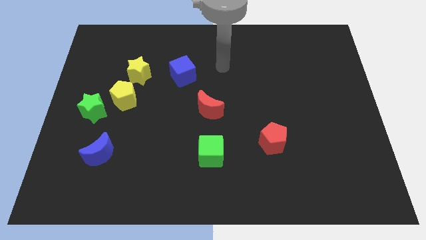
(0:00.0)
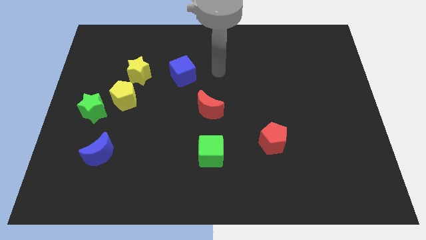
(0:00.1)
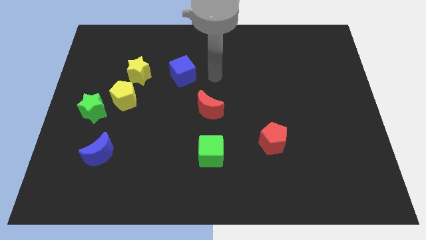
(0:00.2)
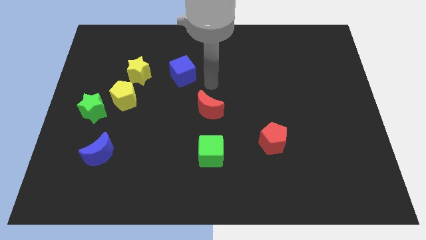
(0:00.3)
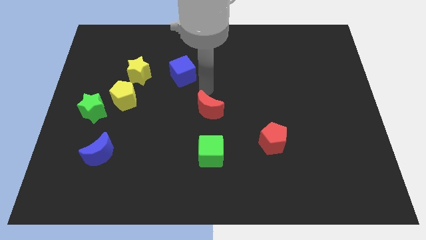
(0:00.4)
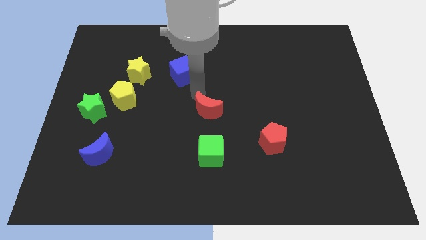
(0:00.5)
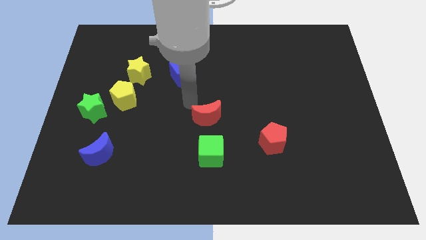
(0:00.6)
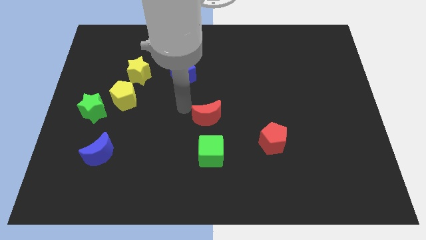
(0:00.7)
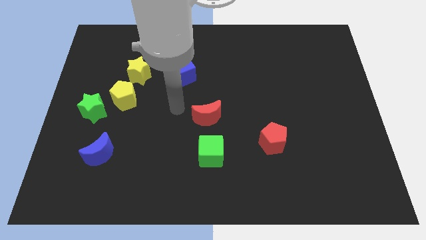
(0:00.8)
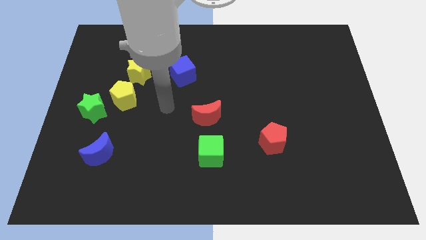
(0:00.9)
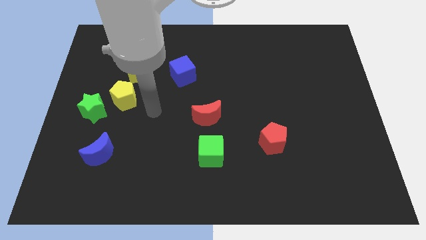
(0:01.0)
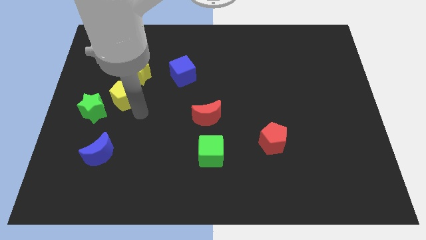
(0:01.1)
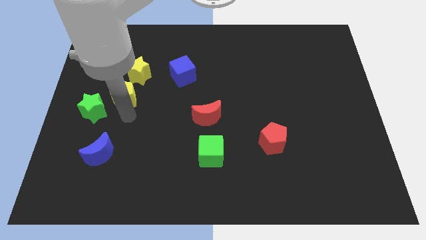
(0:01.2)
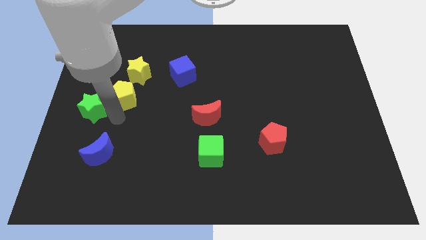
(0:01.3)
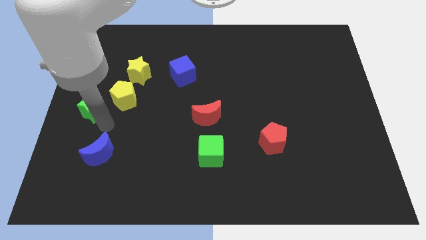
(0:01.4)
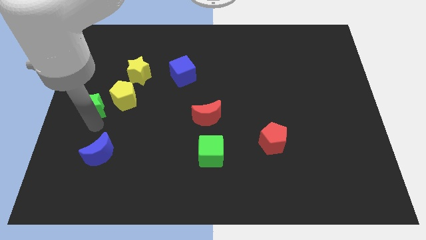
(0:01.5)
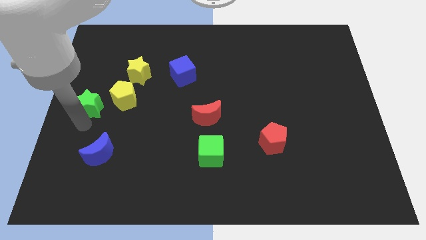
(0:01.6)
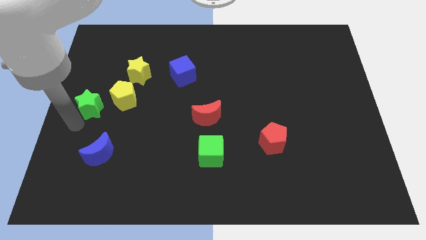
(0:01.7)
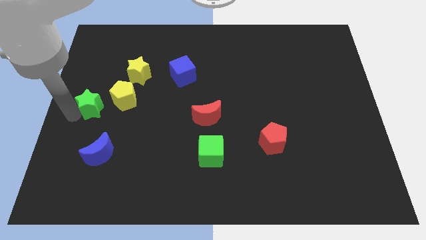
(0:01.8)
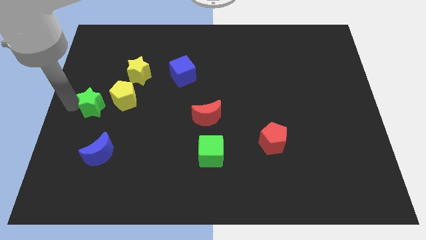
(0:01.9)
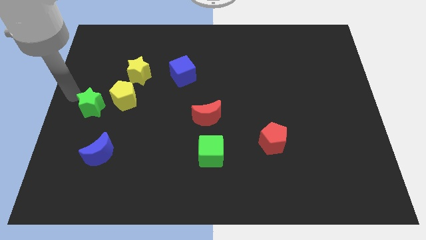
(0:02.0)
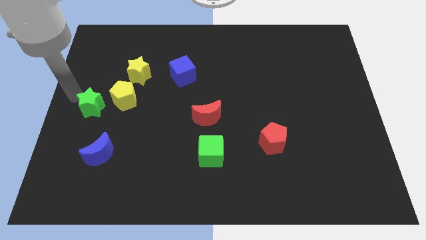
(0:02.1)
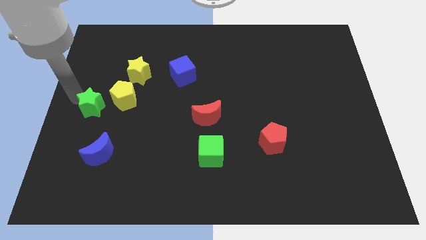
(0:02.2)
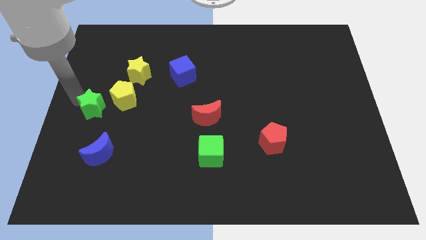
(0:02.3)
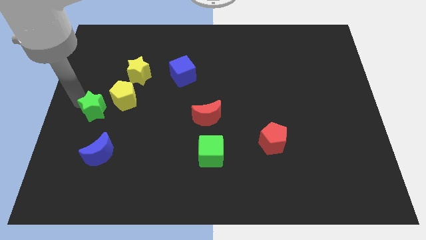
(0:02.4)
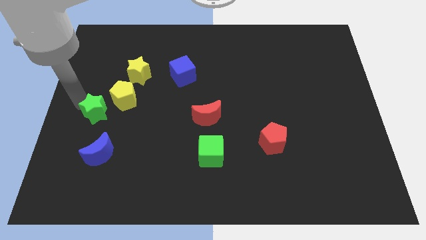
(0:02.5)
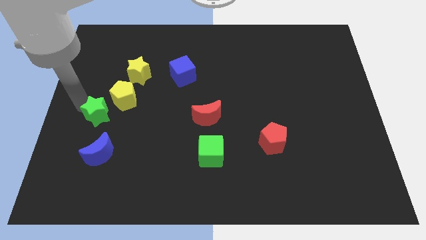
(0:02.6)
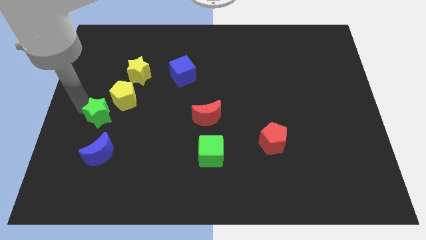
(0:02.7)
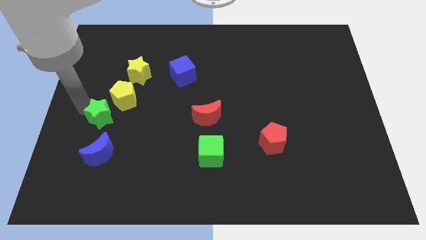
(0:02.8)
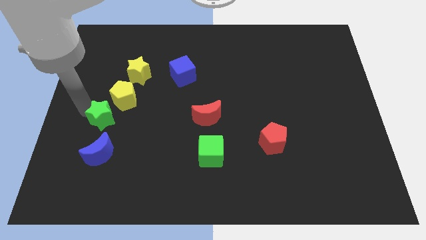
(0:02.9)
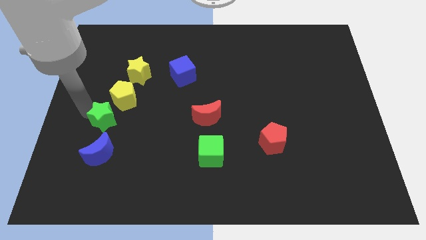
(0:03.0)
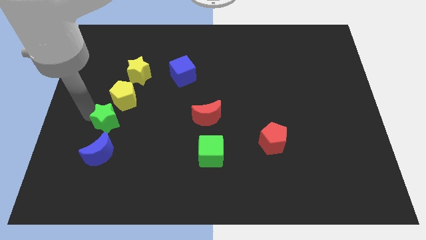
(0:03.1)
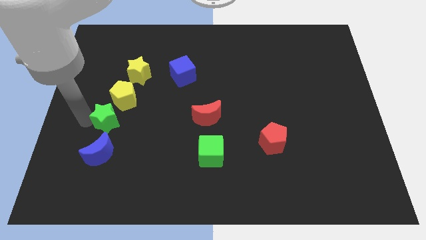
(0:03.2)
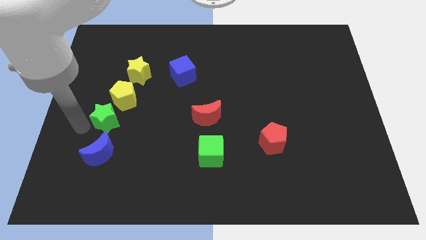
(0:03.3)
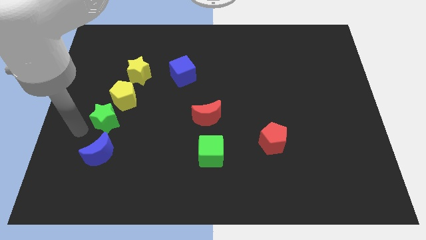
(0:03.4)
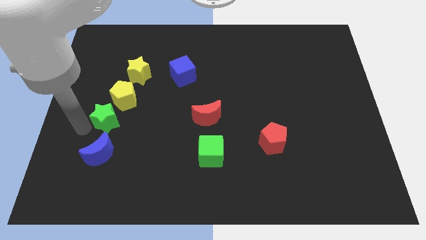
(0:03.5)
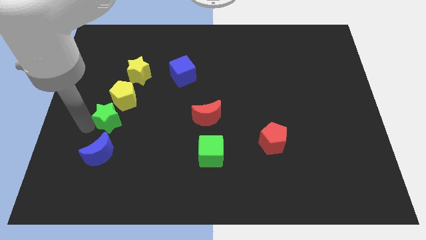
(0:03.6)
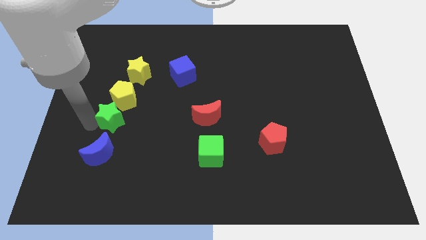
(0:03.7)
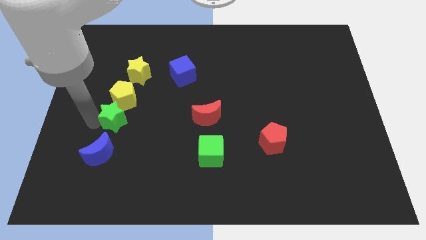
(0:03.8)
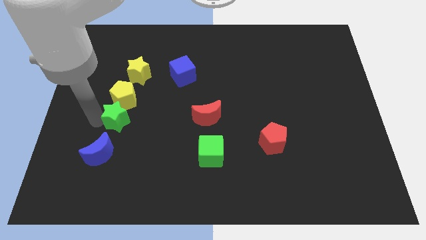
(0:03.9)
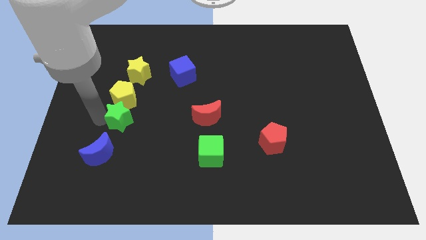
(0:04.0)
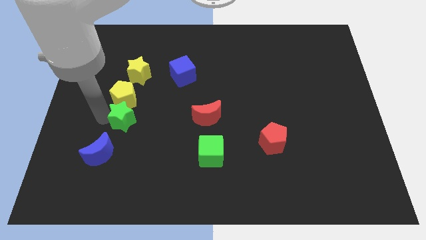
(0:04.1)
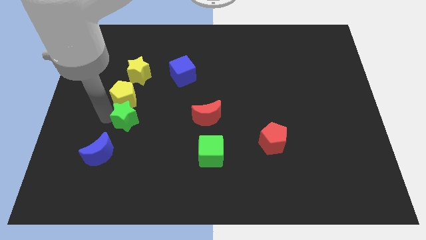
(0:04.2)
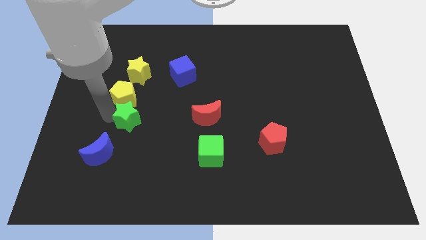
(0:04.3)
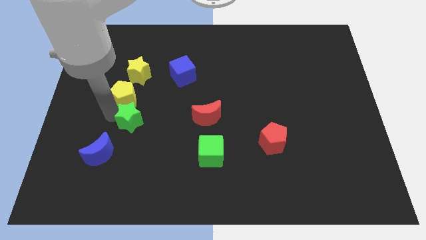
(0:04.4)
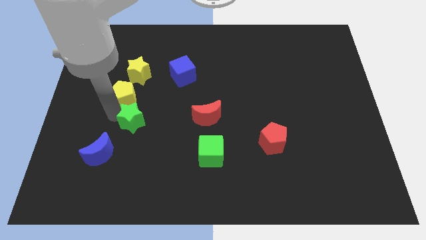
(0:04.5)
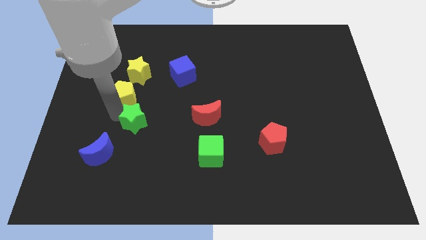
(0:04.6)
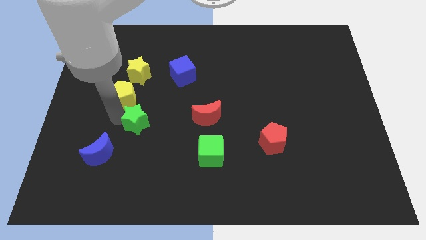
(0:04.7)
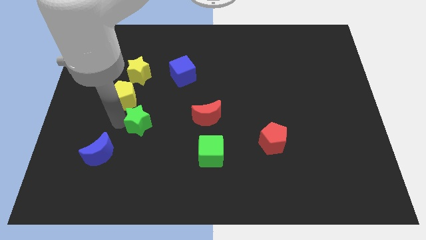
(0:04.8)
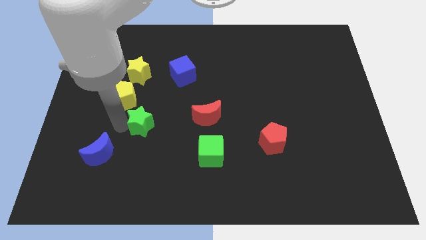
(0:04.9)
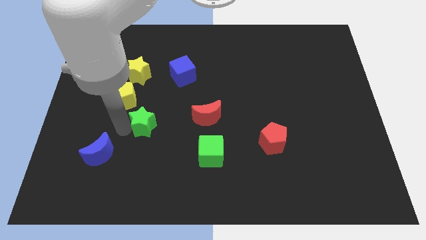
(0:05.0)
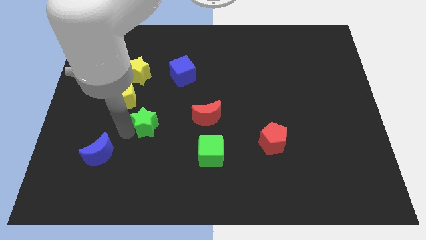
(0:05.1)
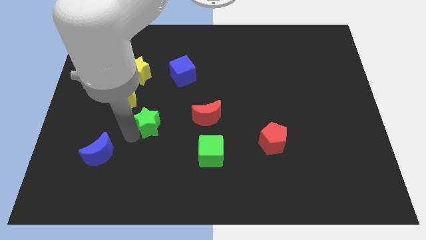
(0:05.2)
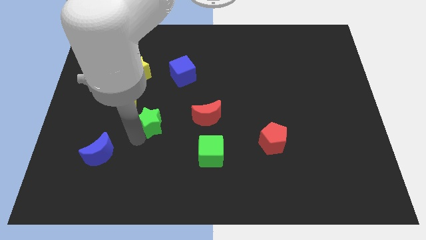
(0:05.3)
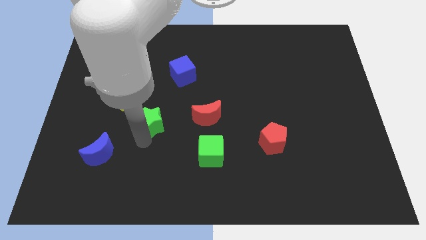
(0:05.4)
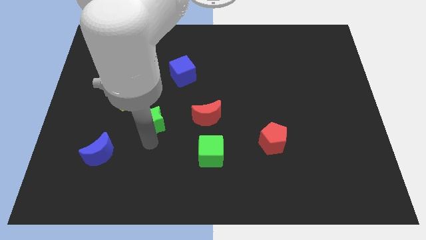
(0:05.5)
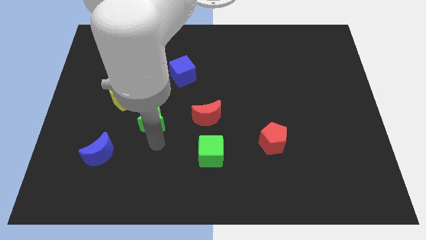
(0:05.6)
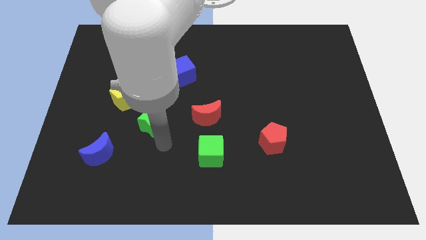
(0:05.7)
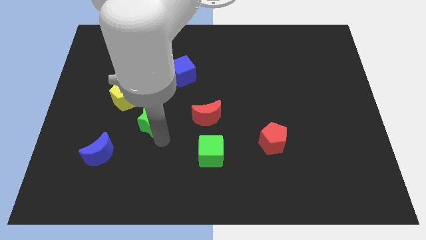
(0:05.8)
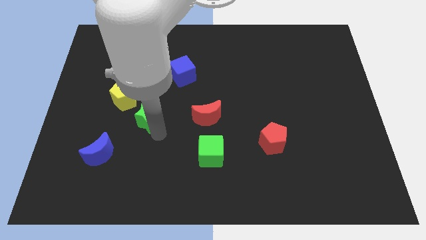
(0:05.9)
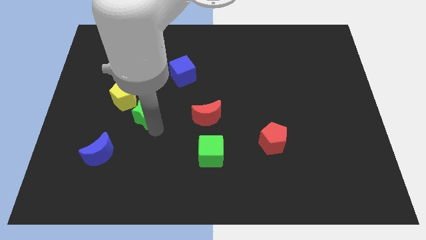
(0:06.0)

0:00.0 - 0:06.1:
put the green star right of the yellow pentagon

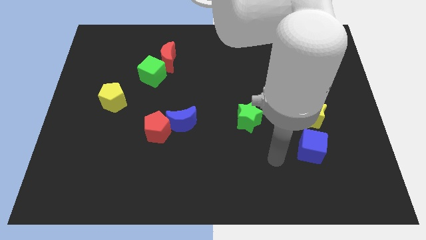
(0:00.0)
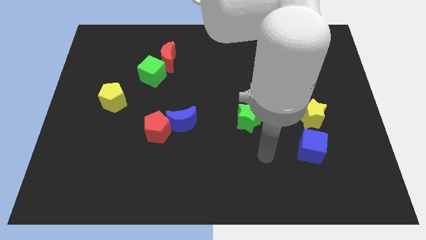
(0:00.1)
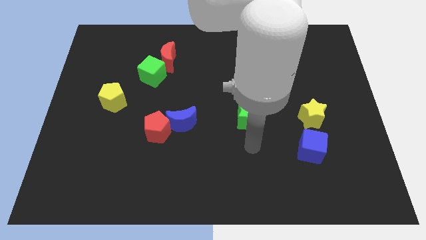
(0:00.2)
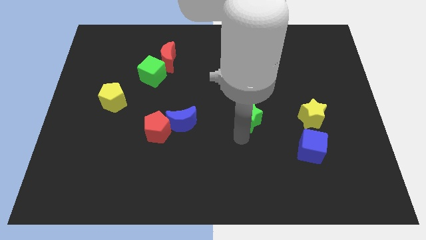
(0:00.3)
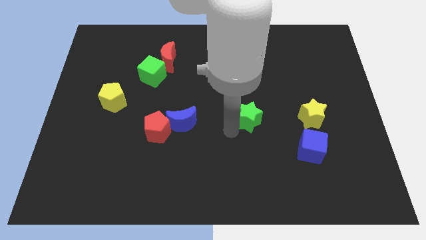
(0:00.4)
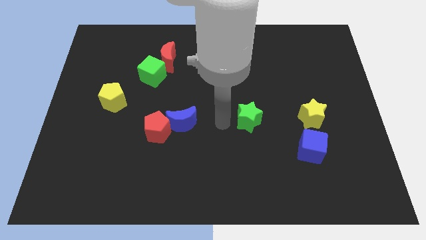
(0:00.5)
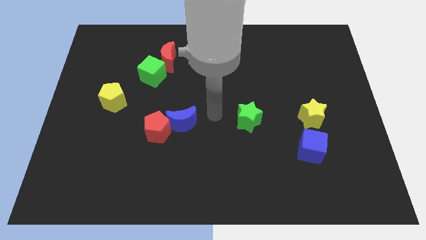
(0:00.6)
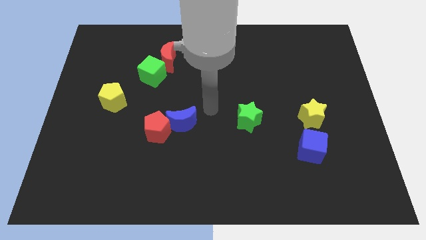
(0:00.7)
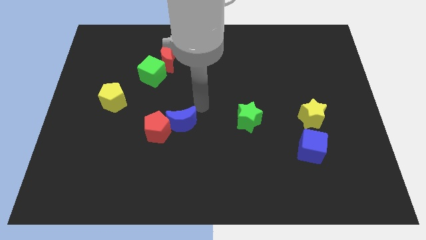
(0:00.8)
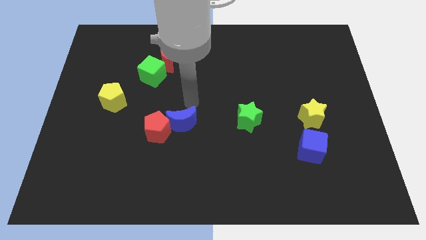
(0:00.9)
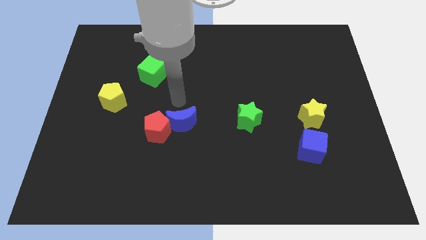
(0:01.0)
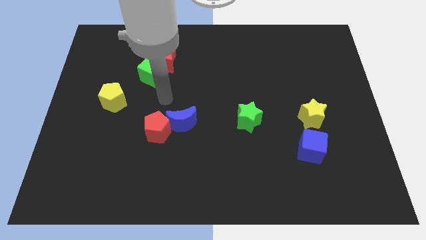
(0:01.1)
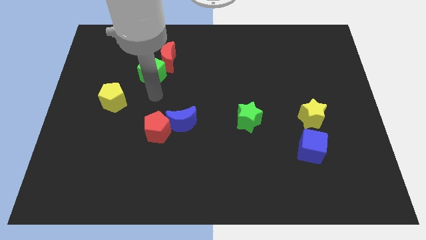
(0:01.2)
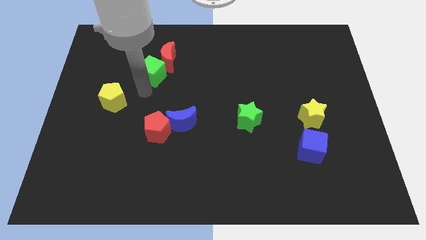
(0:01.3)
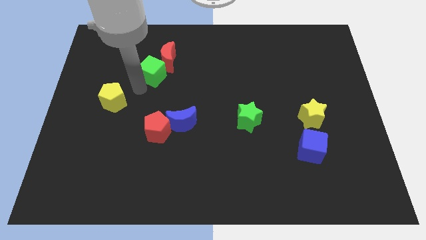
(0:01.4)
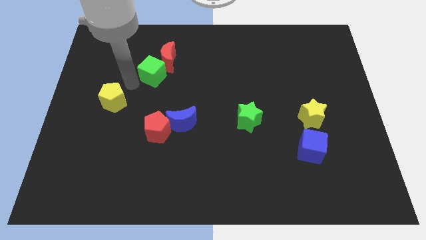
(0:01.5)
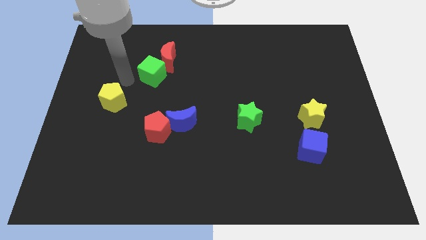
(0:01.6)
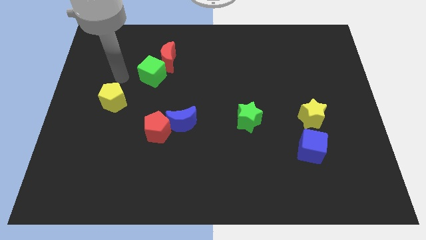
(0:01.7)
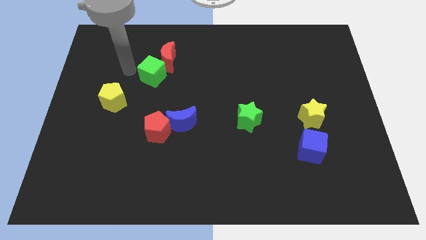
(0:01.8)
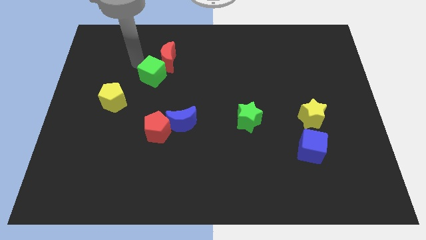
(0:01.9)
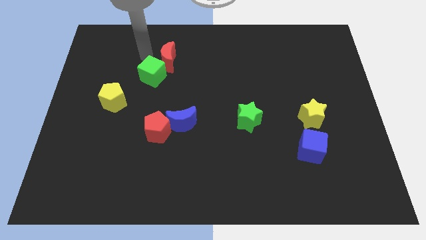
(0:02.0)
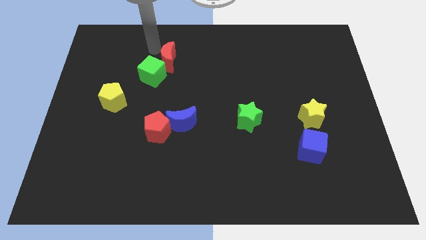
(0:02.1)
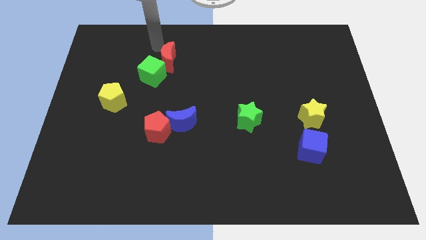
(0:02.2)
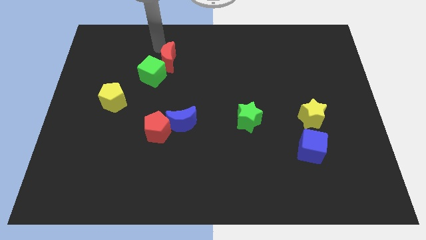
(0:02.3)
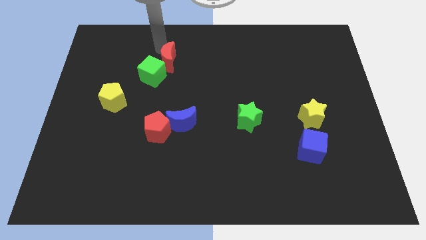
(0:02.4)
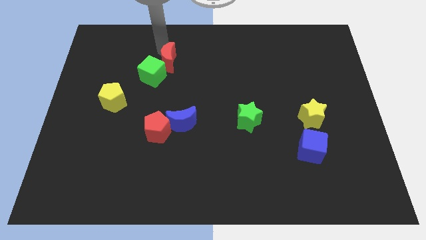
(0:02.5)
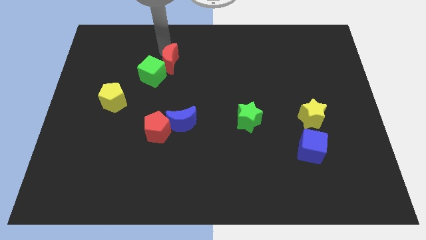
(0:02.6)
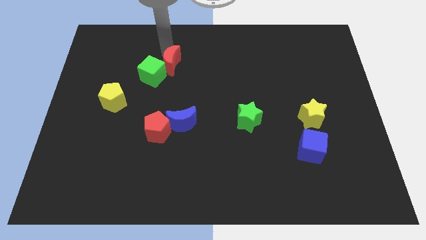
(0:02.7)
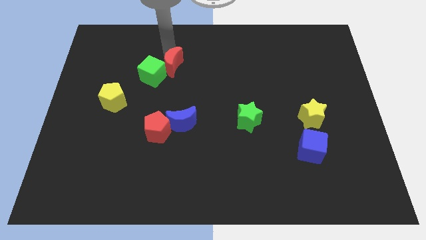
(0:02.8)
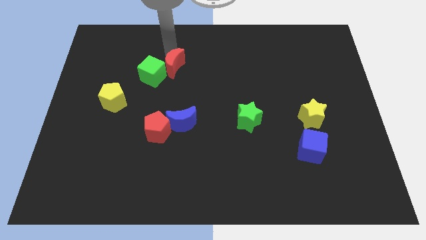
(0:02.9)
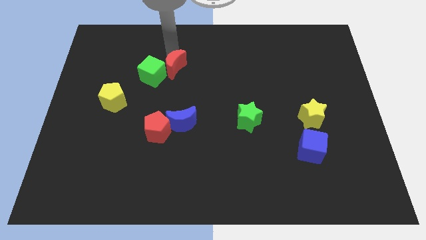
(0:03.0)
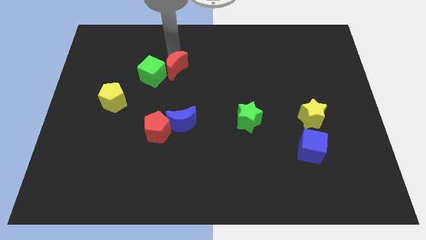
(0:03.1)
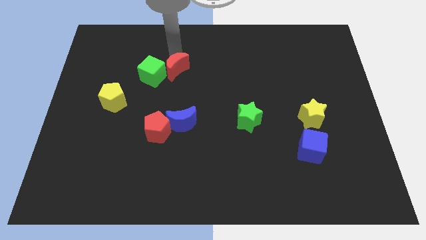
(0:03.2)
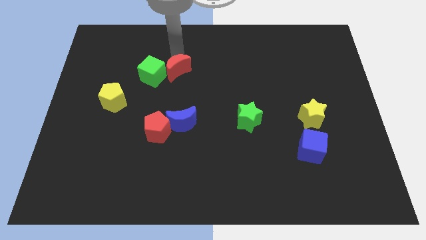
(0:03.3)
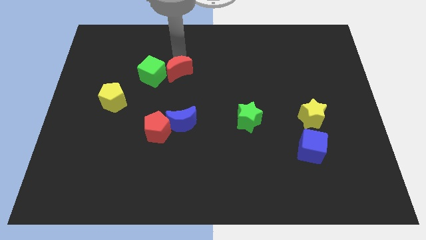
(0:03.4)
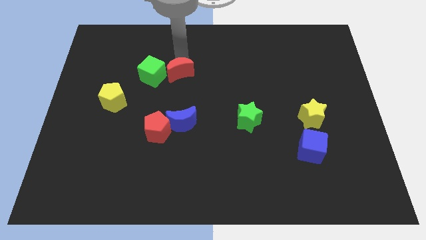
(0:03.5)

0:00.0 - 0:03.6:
push the red moon to the top of the blue moon
